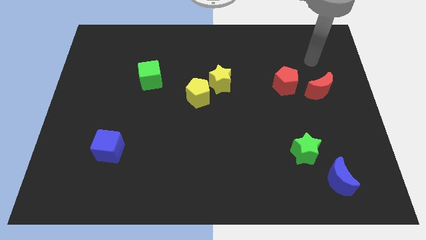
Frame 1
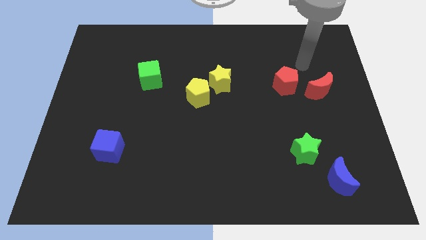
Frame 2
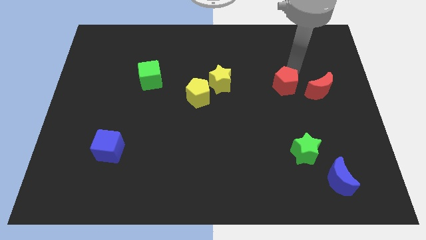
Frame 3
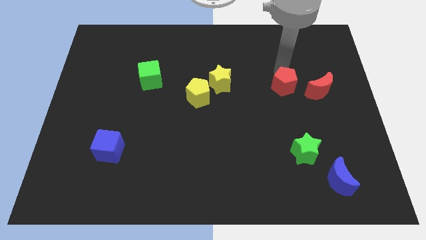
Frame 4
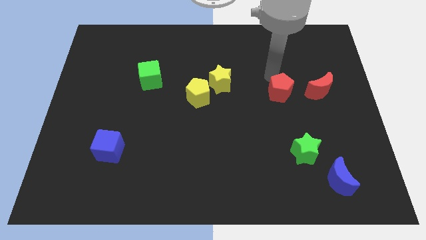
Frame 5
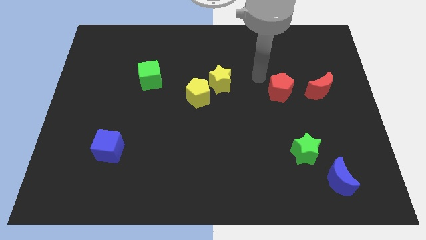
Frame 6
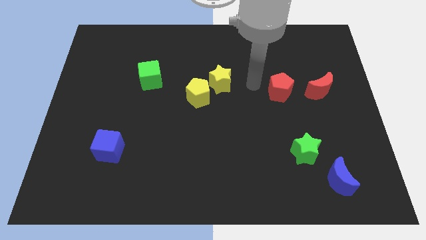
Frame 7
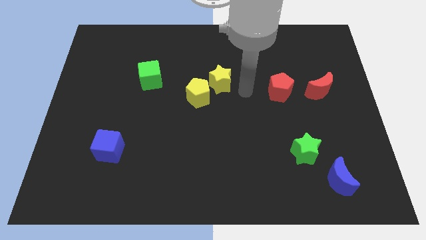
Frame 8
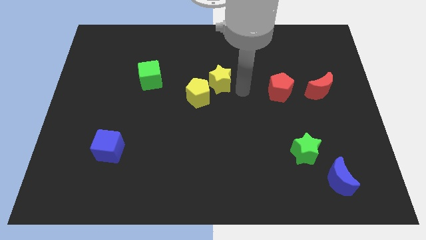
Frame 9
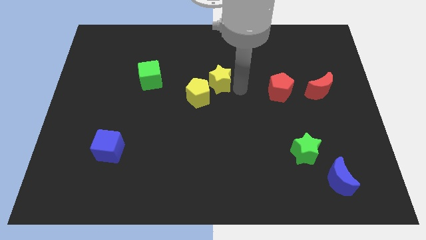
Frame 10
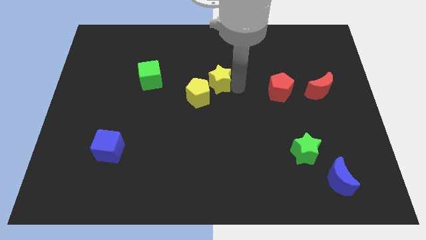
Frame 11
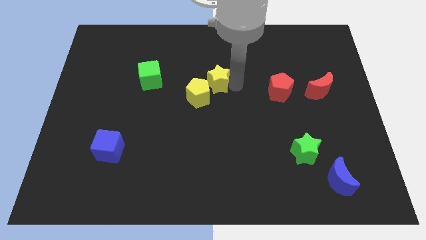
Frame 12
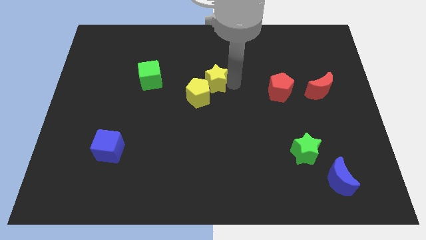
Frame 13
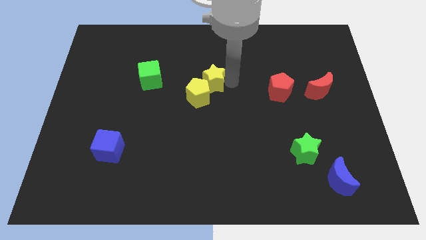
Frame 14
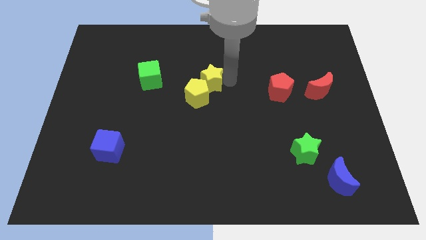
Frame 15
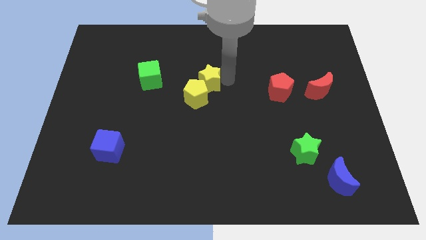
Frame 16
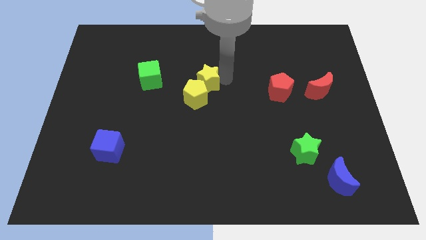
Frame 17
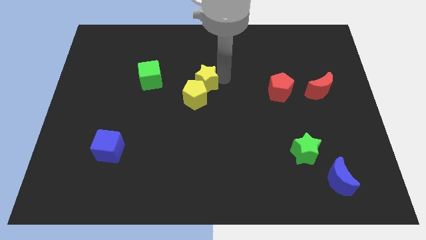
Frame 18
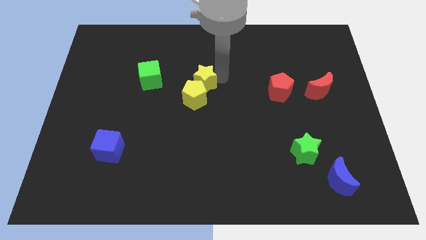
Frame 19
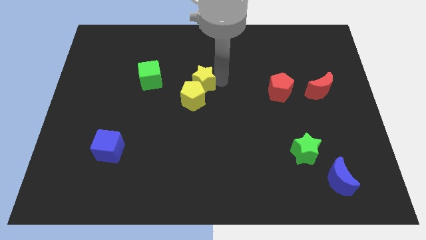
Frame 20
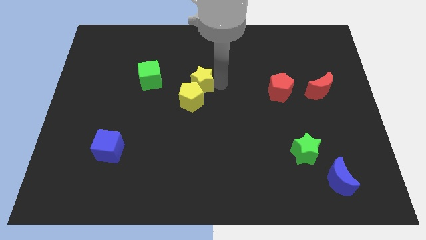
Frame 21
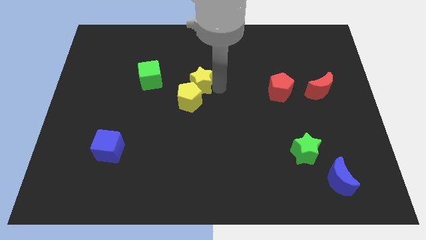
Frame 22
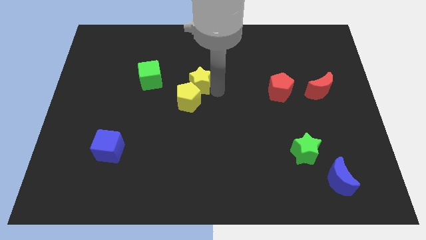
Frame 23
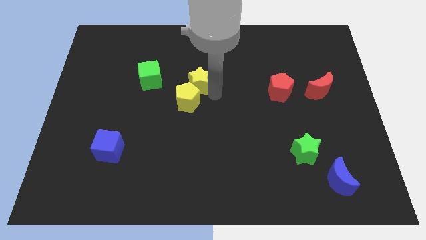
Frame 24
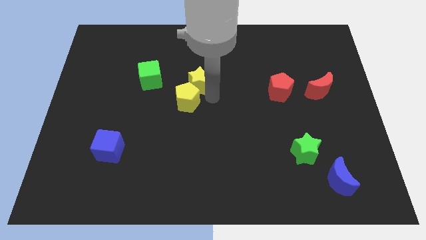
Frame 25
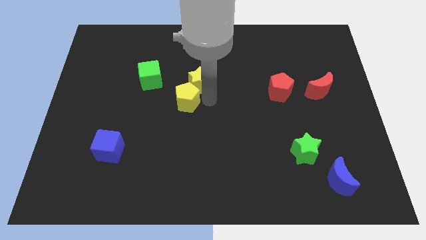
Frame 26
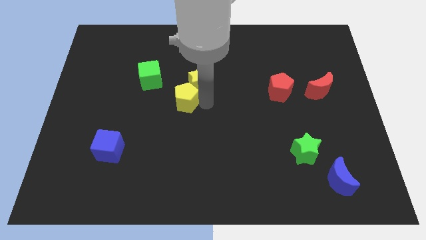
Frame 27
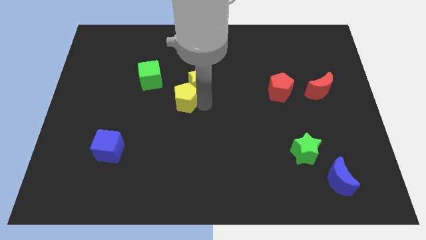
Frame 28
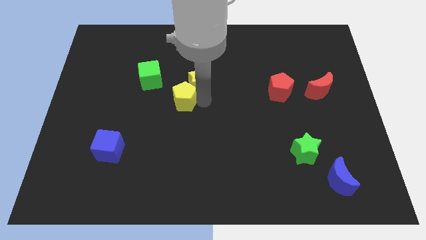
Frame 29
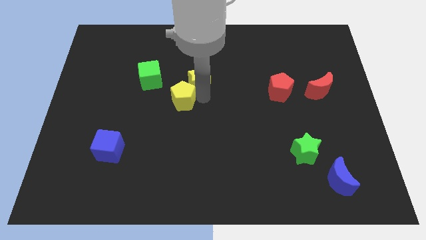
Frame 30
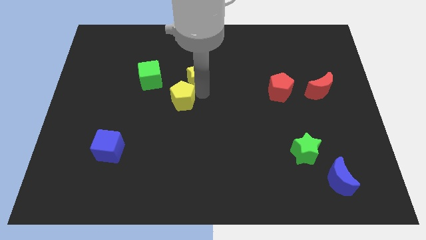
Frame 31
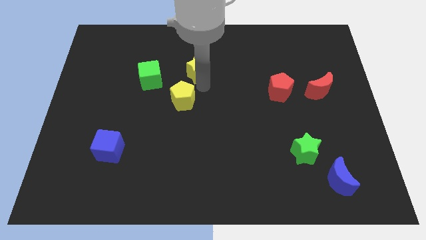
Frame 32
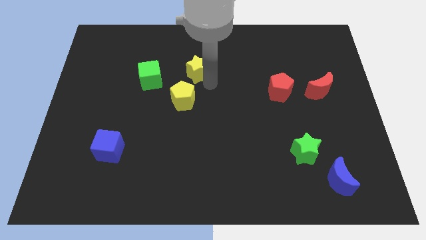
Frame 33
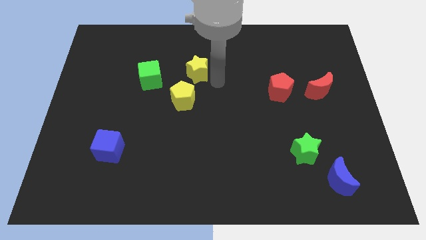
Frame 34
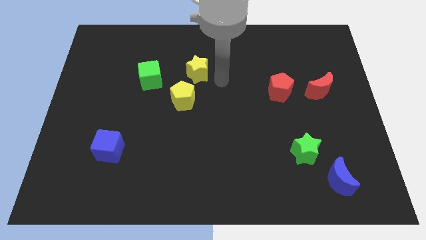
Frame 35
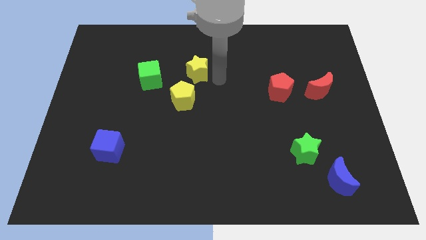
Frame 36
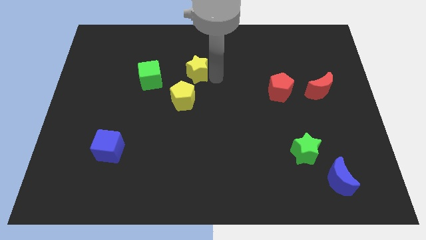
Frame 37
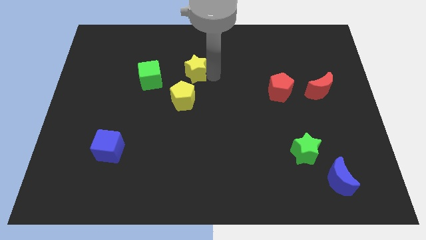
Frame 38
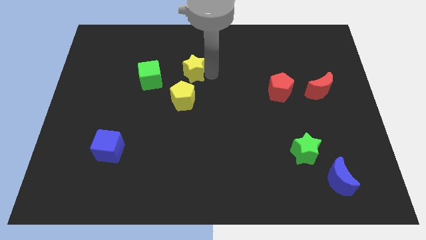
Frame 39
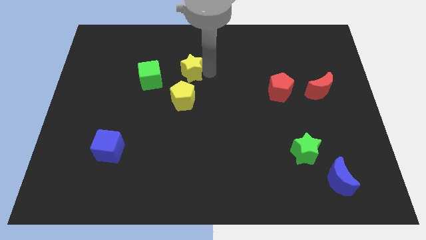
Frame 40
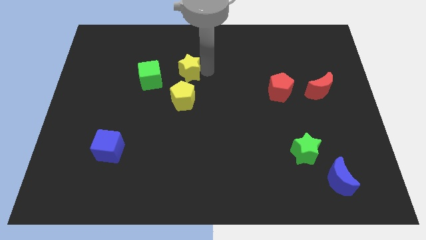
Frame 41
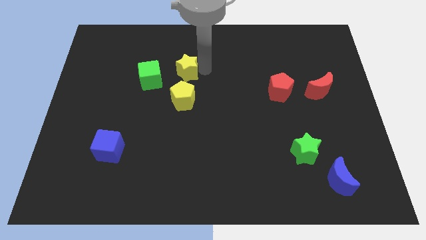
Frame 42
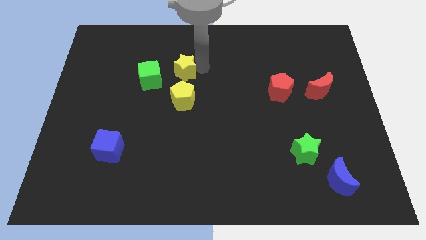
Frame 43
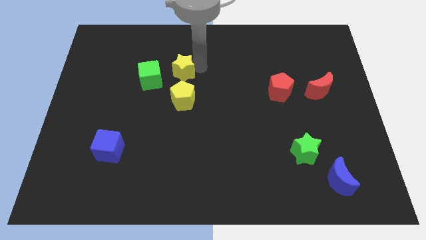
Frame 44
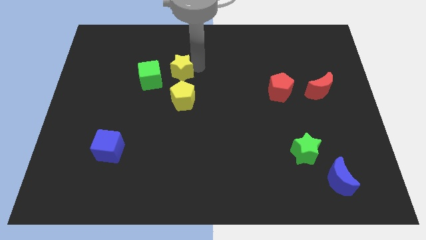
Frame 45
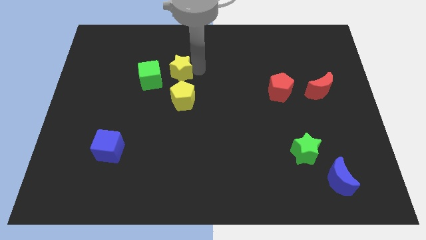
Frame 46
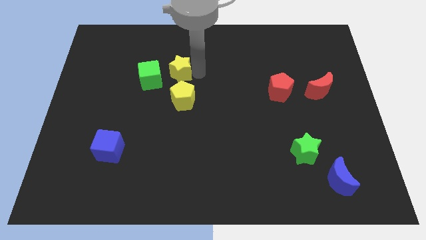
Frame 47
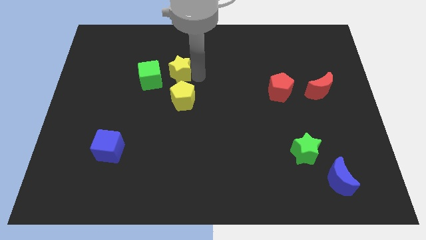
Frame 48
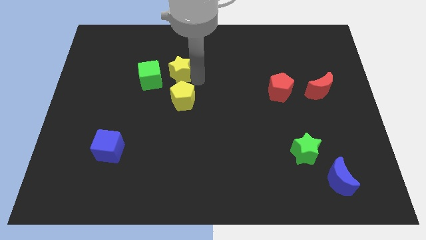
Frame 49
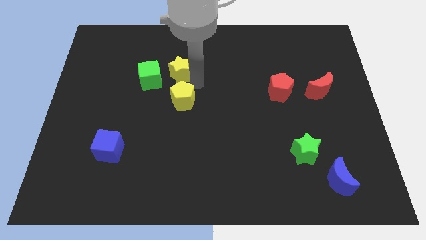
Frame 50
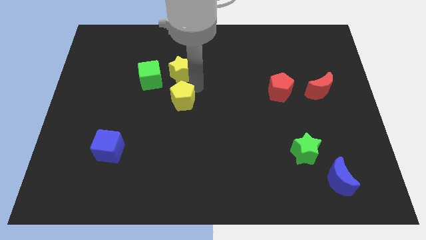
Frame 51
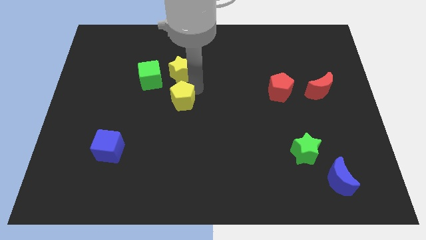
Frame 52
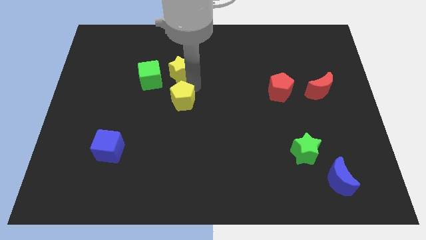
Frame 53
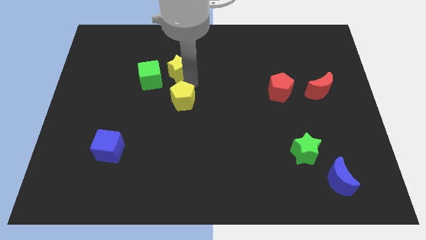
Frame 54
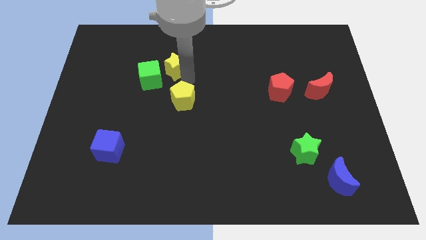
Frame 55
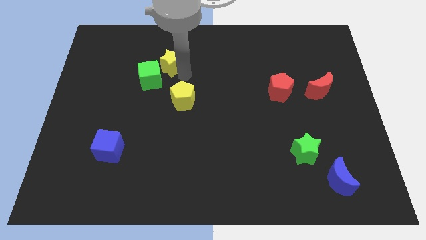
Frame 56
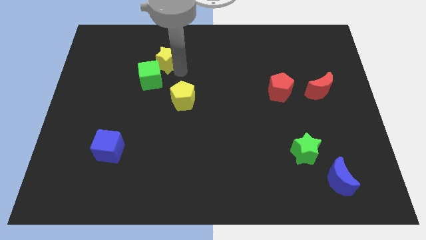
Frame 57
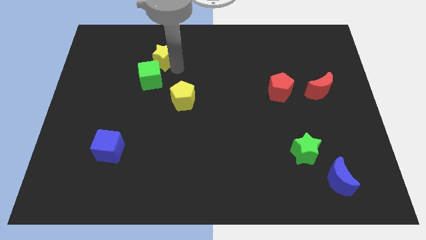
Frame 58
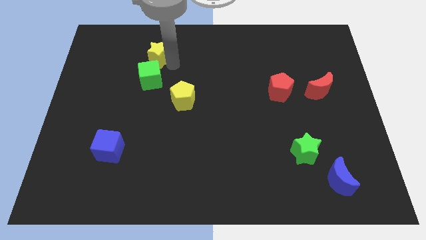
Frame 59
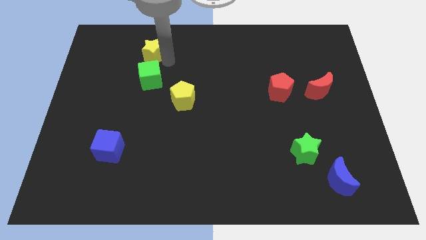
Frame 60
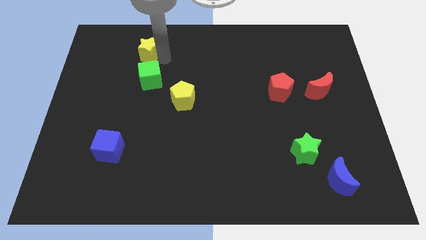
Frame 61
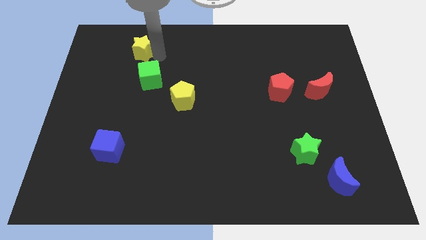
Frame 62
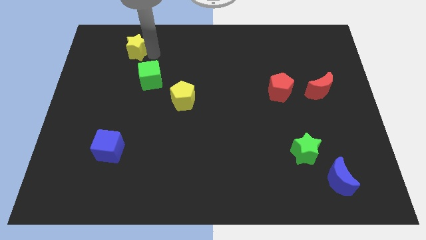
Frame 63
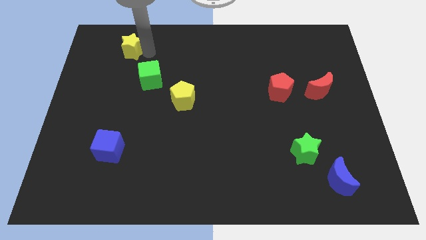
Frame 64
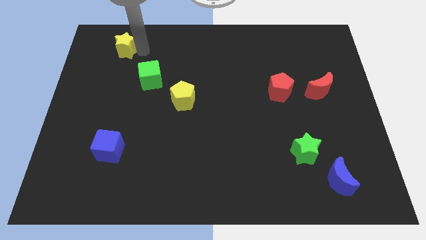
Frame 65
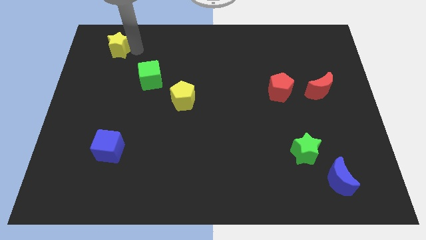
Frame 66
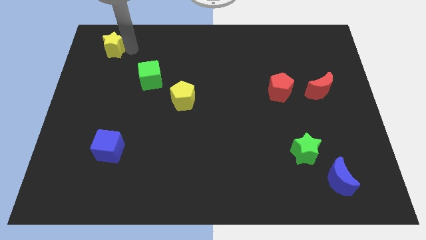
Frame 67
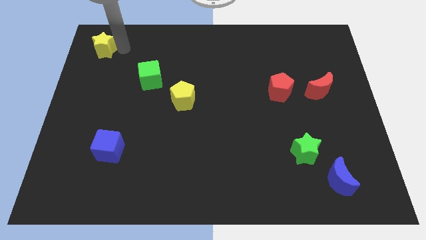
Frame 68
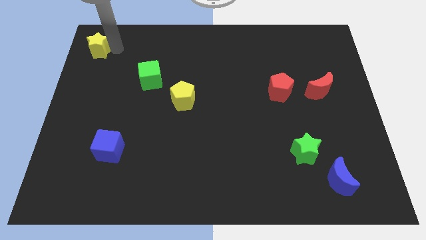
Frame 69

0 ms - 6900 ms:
push the yellow star to the top left corner

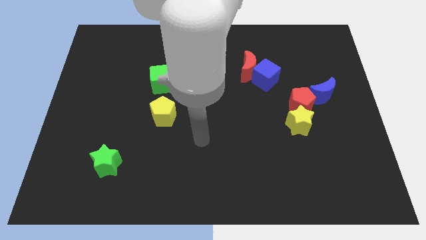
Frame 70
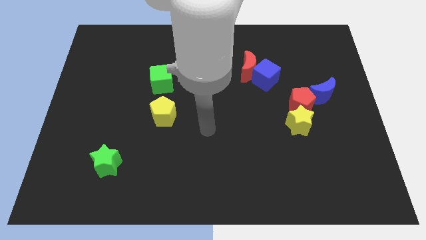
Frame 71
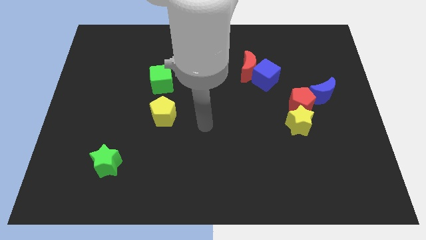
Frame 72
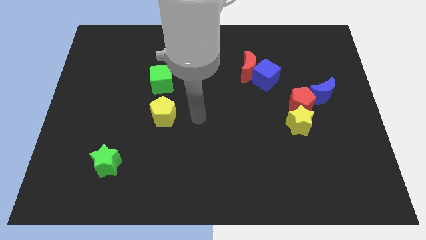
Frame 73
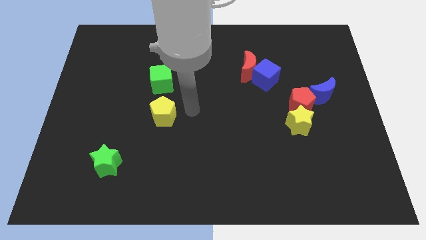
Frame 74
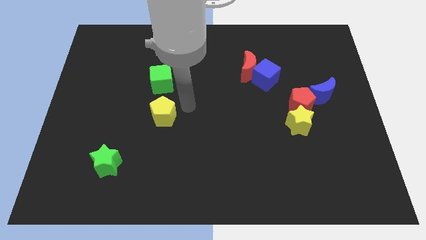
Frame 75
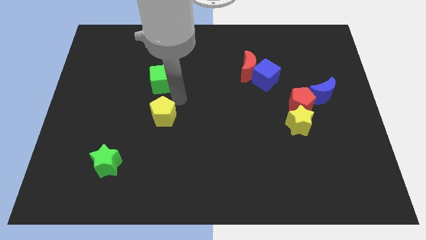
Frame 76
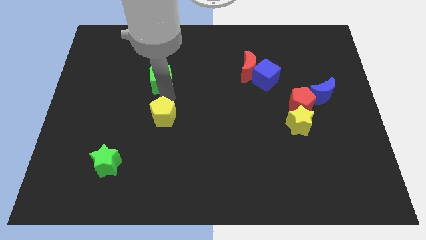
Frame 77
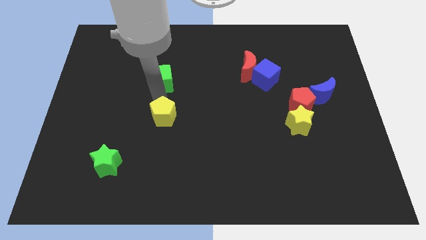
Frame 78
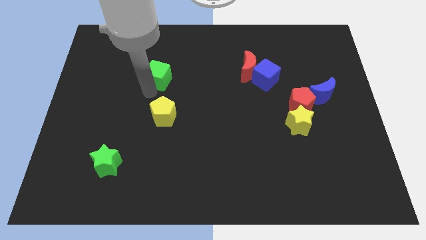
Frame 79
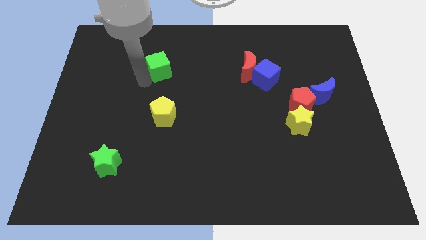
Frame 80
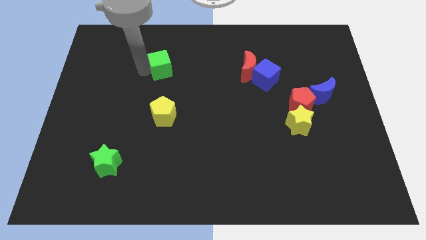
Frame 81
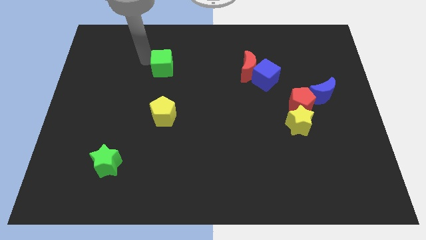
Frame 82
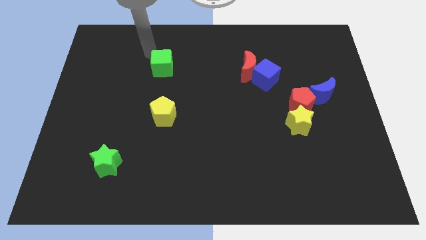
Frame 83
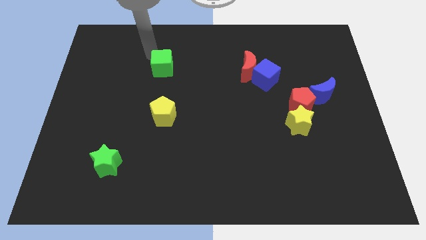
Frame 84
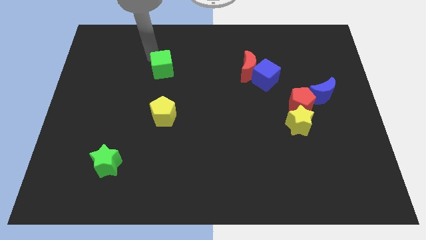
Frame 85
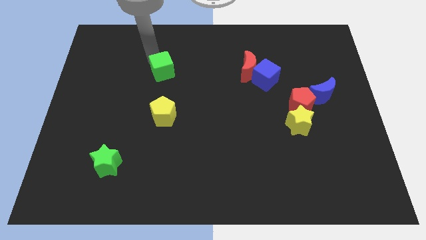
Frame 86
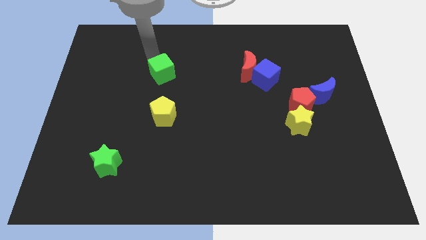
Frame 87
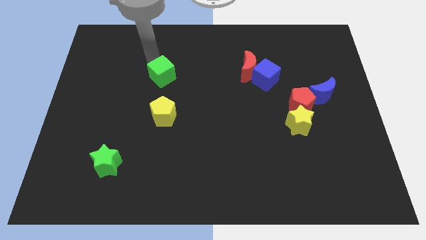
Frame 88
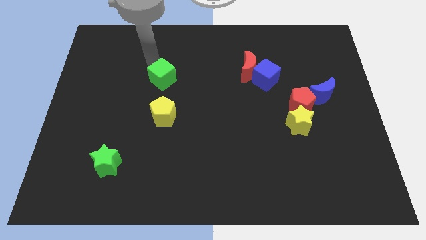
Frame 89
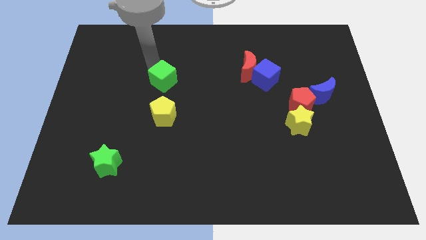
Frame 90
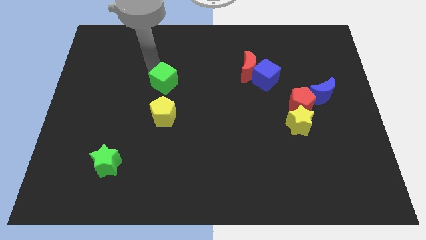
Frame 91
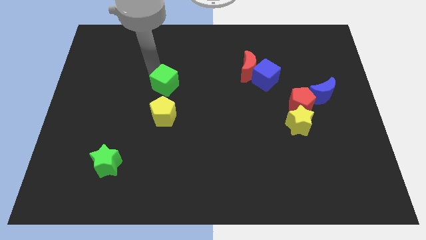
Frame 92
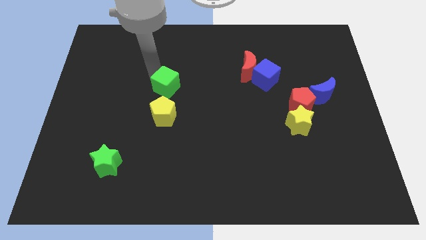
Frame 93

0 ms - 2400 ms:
put the green cube to the center
